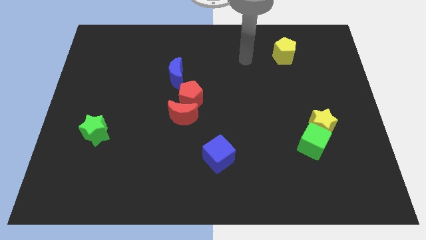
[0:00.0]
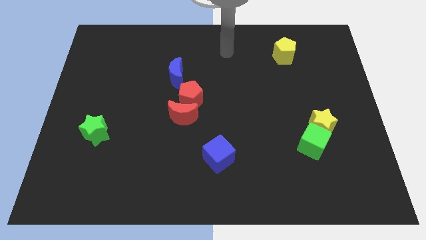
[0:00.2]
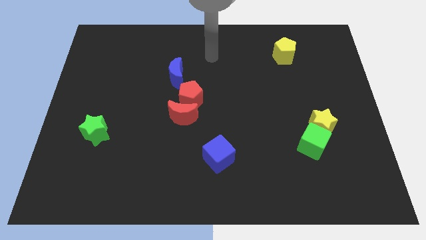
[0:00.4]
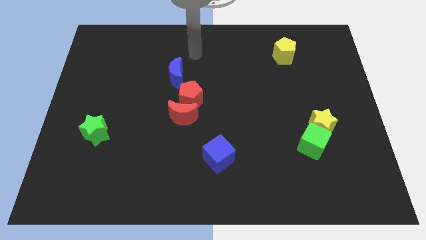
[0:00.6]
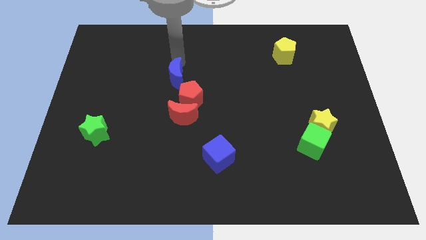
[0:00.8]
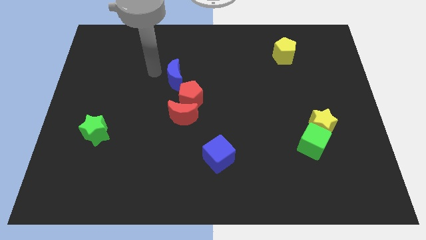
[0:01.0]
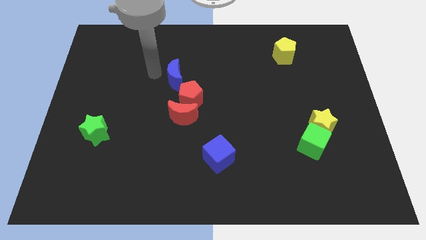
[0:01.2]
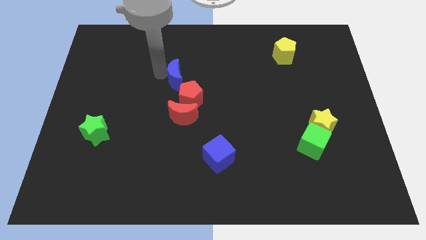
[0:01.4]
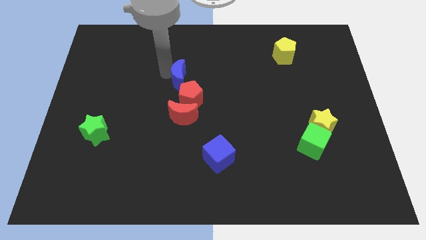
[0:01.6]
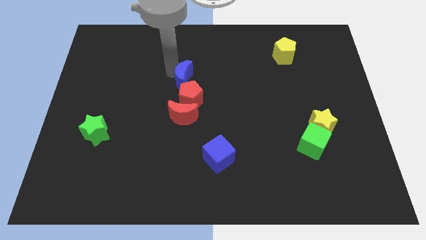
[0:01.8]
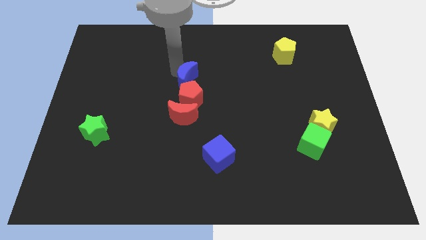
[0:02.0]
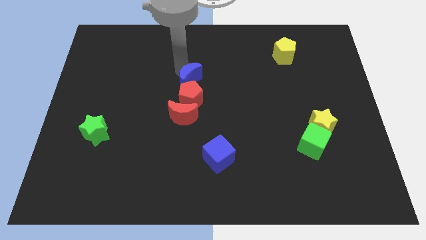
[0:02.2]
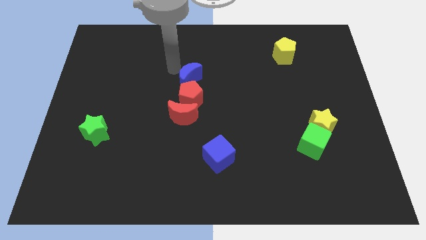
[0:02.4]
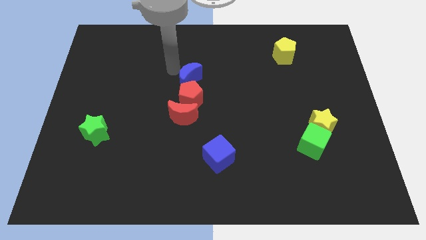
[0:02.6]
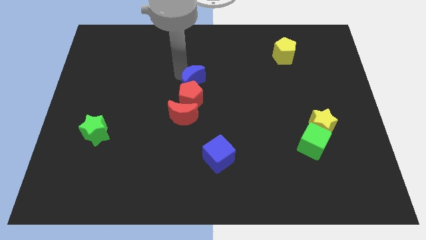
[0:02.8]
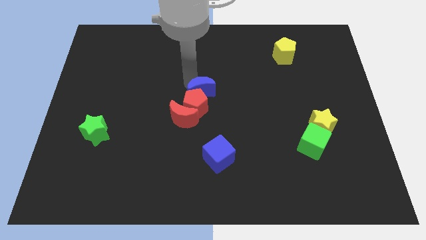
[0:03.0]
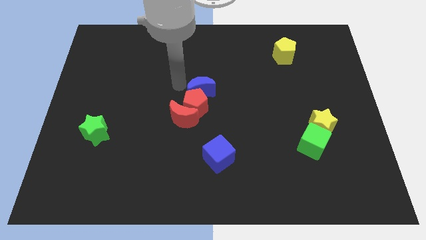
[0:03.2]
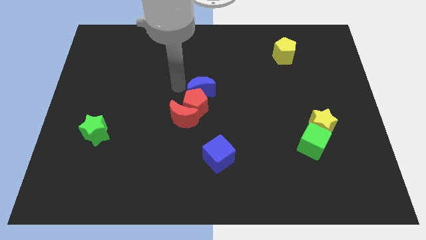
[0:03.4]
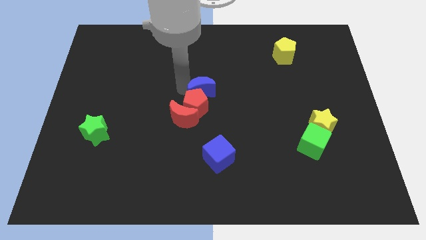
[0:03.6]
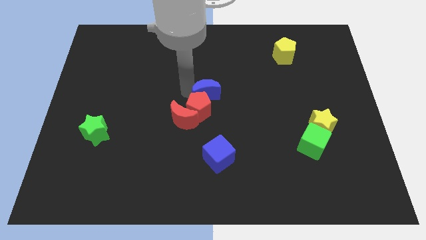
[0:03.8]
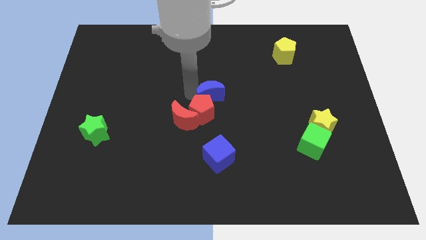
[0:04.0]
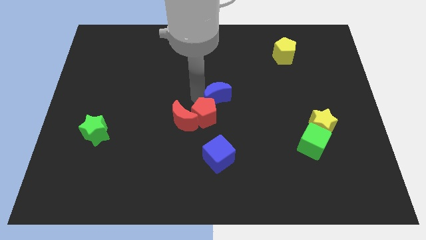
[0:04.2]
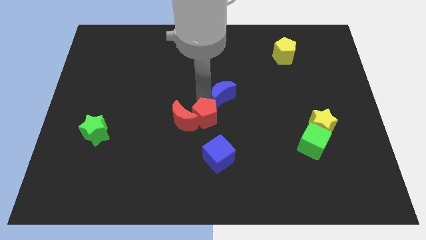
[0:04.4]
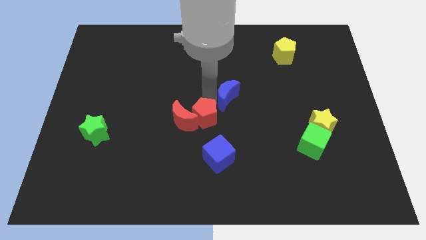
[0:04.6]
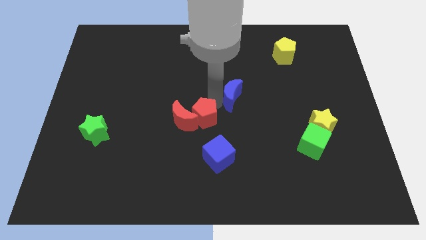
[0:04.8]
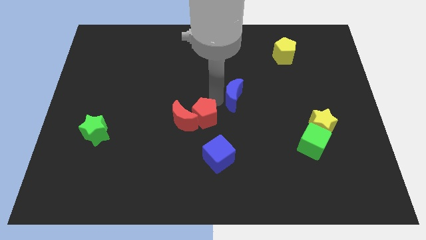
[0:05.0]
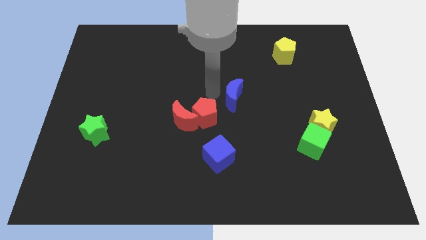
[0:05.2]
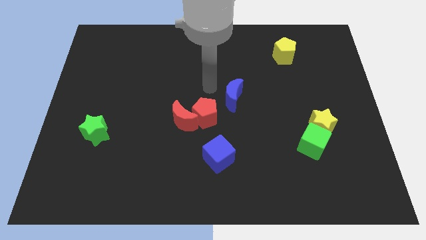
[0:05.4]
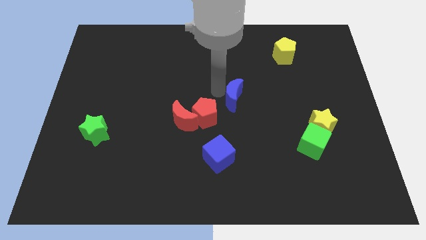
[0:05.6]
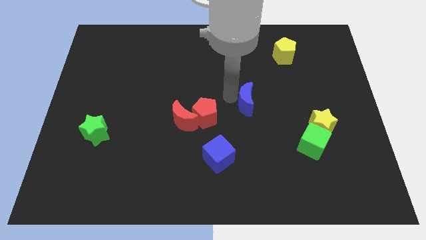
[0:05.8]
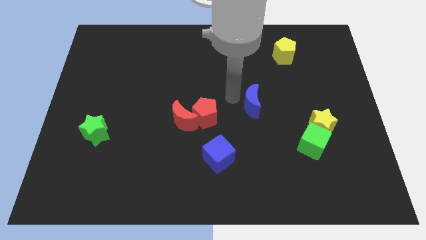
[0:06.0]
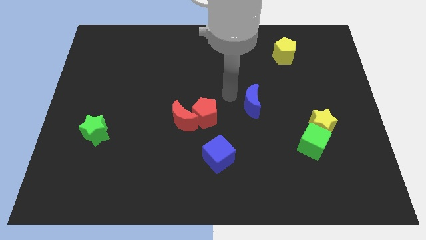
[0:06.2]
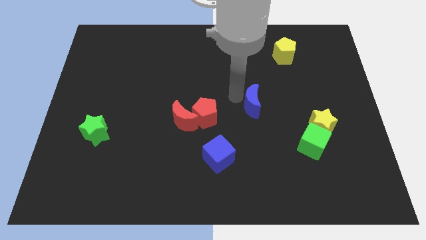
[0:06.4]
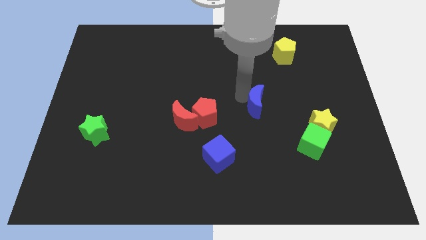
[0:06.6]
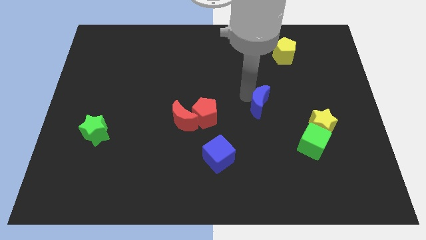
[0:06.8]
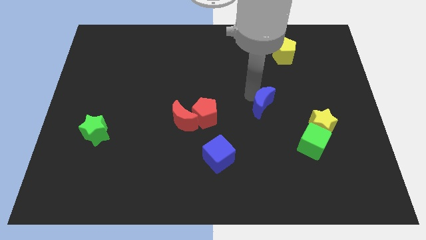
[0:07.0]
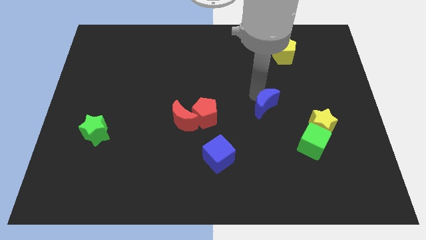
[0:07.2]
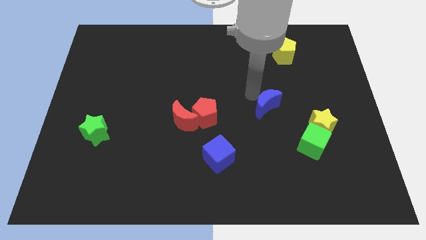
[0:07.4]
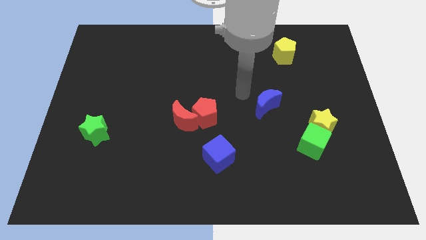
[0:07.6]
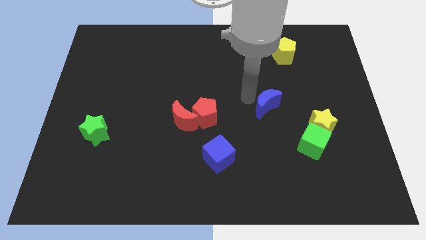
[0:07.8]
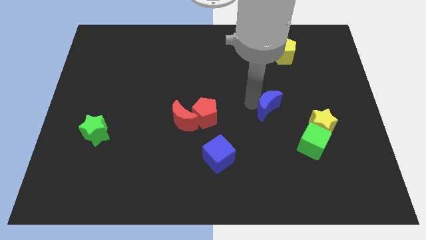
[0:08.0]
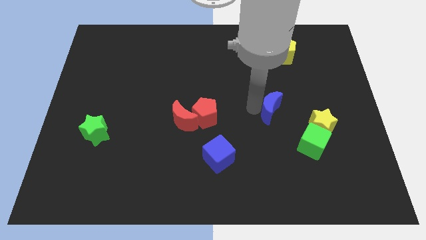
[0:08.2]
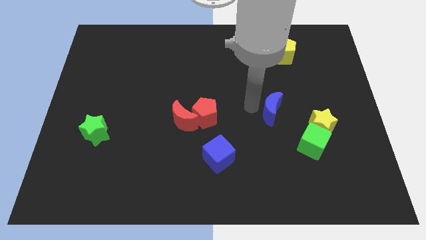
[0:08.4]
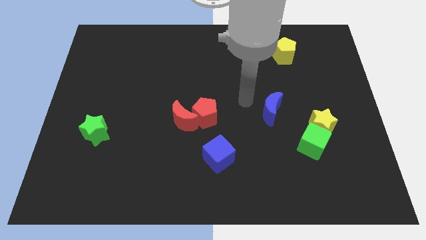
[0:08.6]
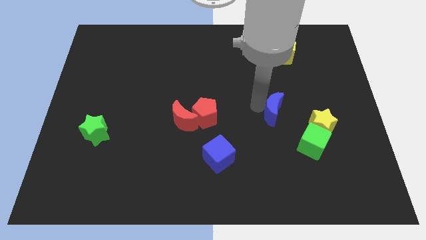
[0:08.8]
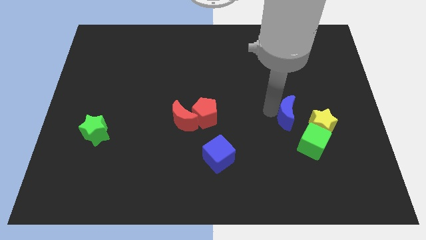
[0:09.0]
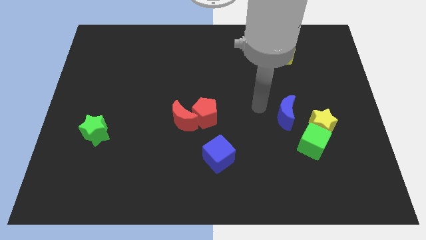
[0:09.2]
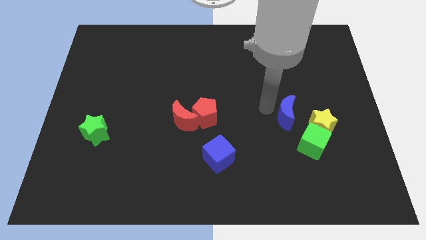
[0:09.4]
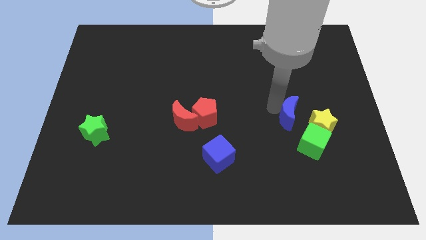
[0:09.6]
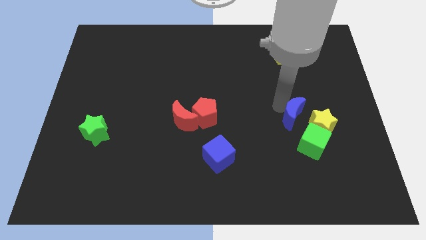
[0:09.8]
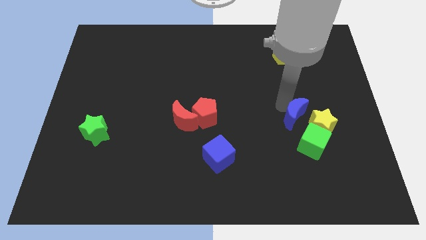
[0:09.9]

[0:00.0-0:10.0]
slide the blue moon towards the yellow star

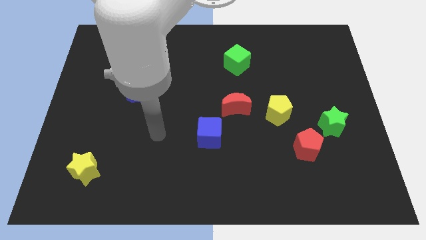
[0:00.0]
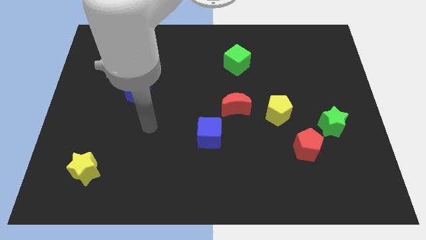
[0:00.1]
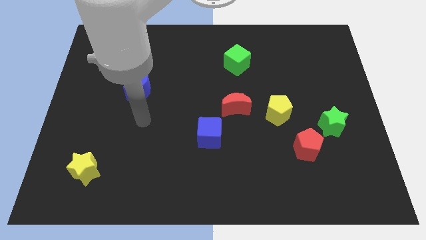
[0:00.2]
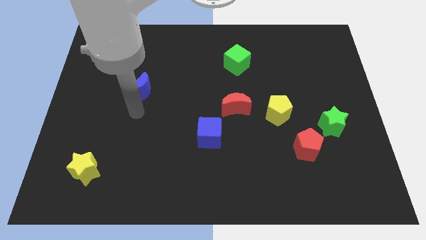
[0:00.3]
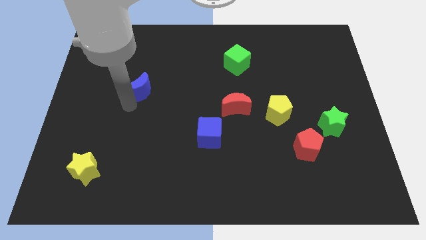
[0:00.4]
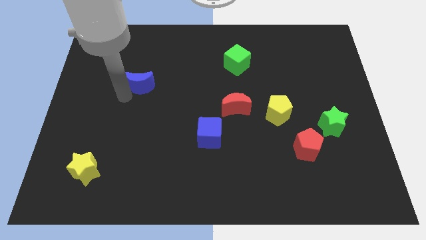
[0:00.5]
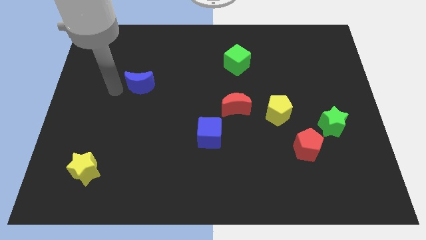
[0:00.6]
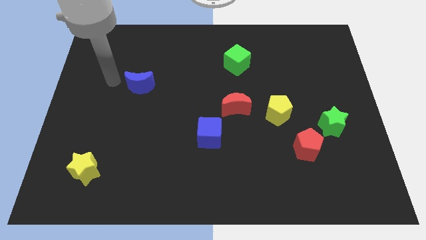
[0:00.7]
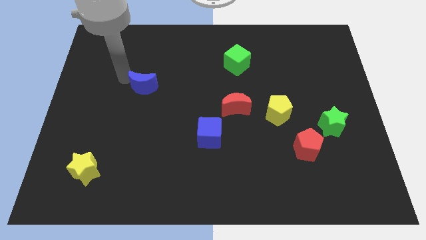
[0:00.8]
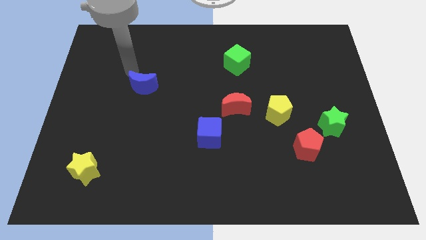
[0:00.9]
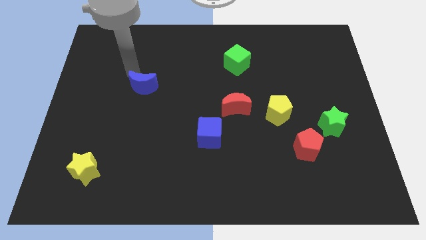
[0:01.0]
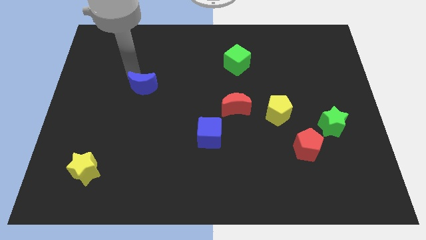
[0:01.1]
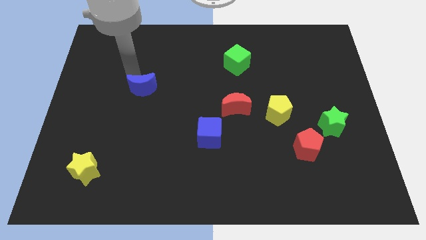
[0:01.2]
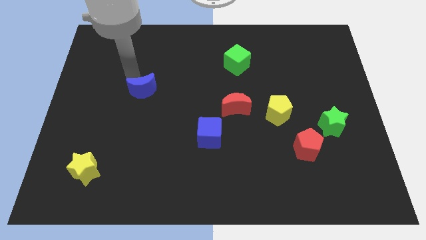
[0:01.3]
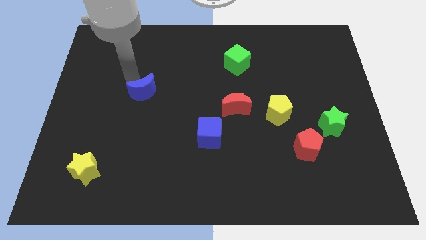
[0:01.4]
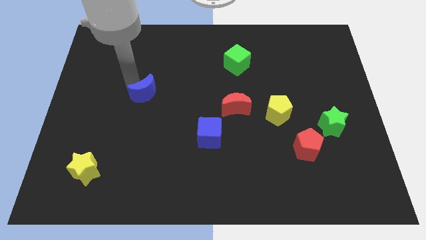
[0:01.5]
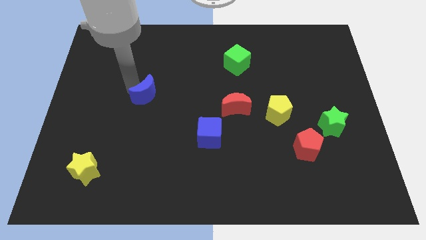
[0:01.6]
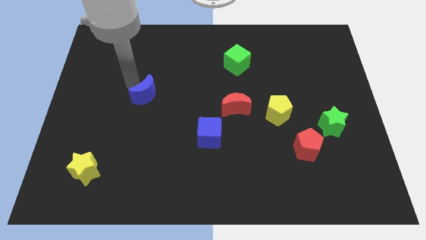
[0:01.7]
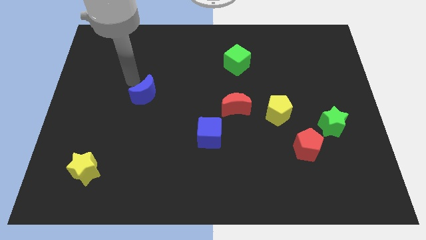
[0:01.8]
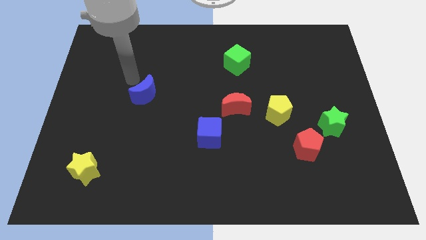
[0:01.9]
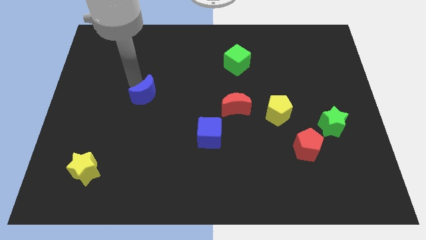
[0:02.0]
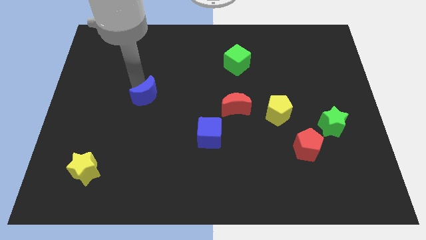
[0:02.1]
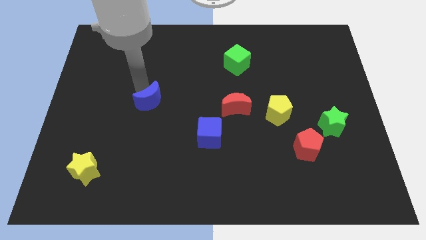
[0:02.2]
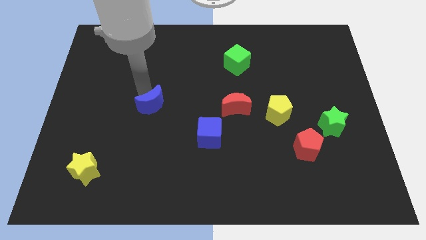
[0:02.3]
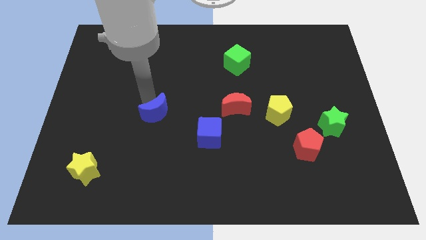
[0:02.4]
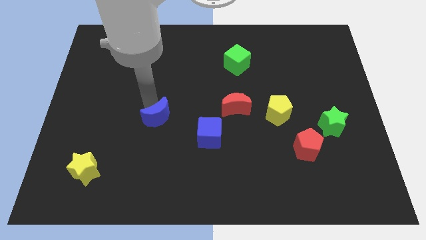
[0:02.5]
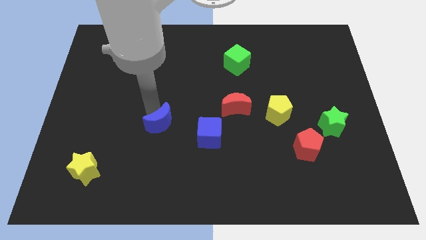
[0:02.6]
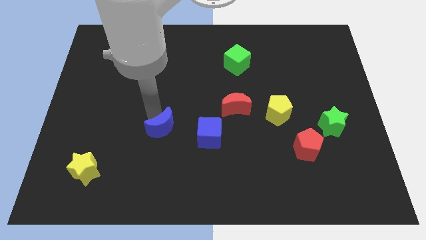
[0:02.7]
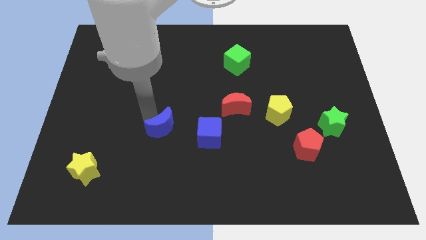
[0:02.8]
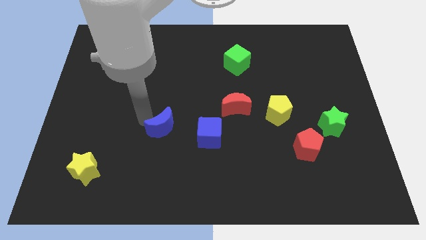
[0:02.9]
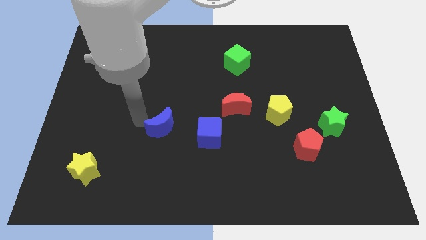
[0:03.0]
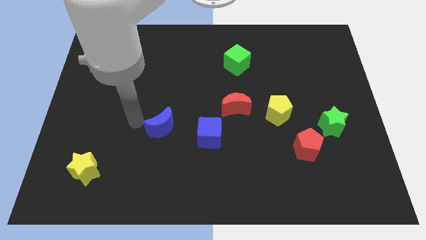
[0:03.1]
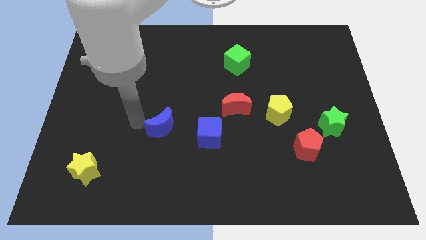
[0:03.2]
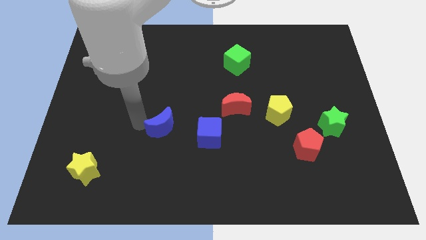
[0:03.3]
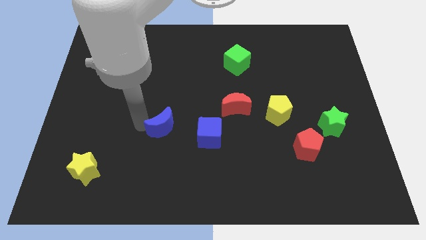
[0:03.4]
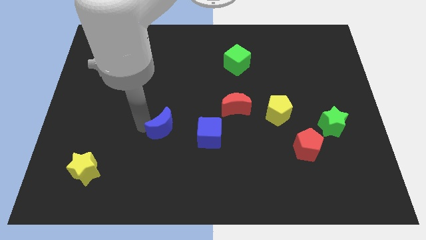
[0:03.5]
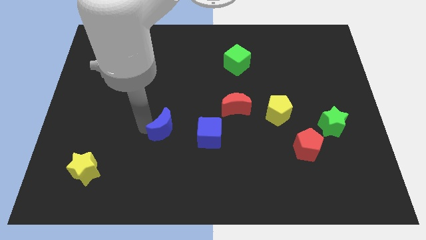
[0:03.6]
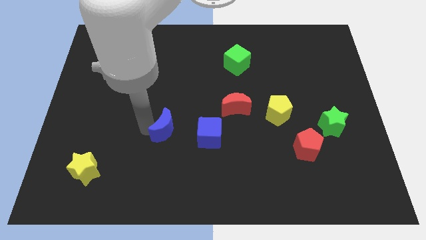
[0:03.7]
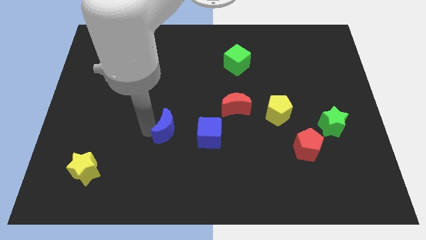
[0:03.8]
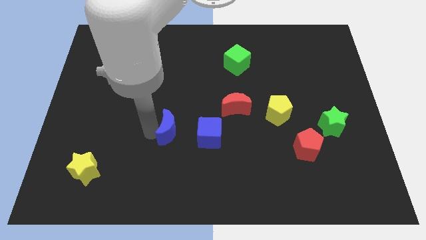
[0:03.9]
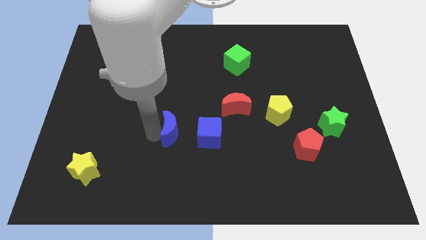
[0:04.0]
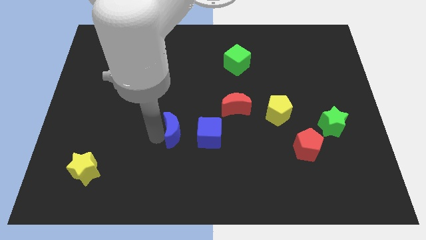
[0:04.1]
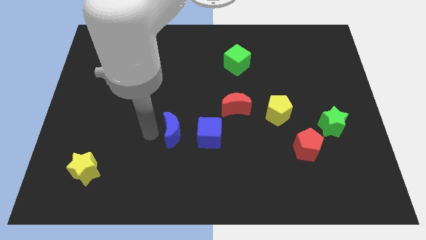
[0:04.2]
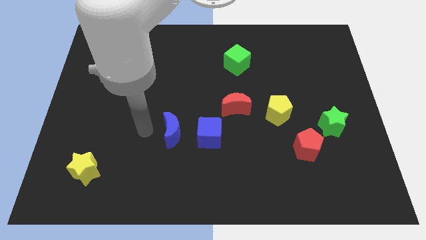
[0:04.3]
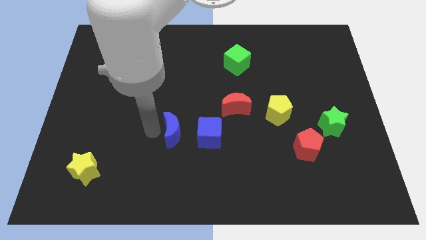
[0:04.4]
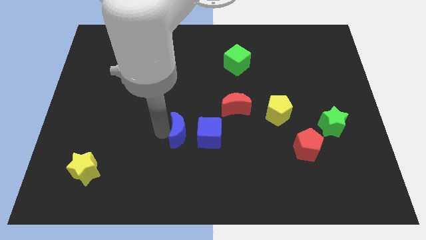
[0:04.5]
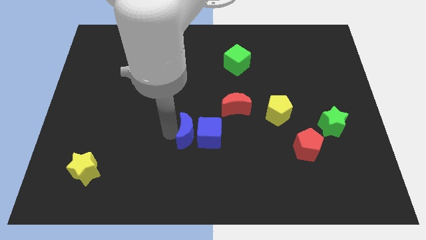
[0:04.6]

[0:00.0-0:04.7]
put the blue moon to the blue cube
